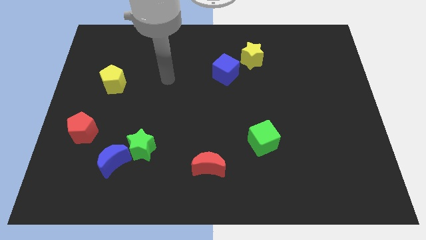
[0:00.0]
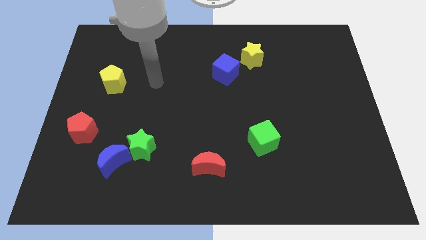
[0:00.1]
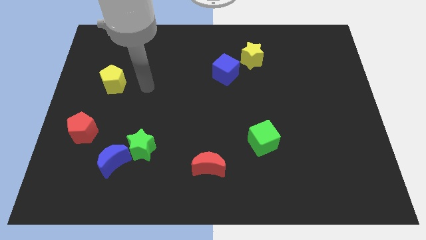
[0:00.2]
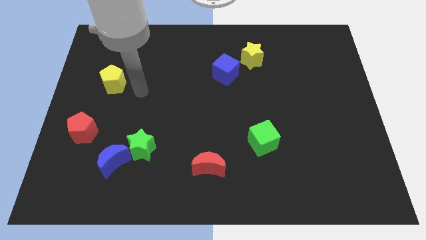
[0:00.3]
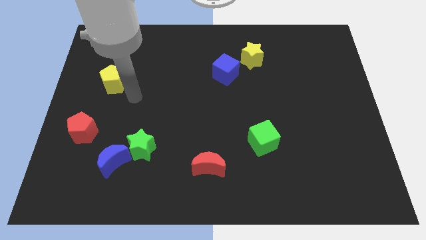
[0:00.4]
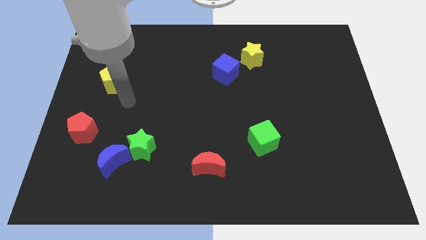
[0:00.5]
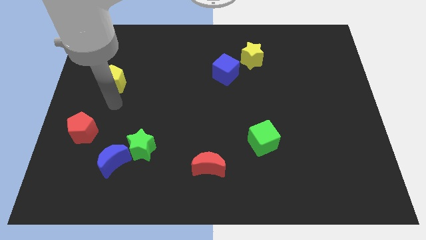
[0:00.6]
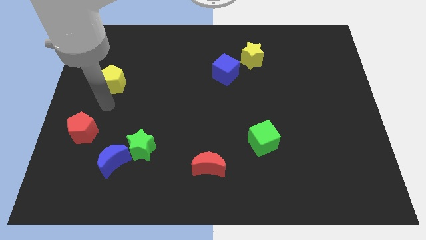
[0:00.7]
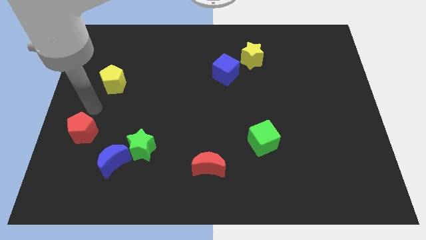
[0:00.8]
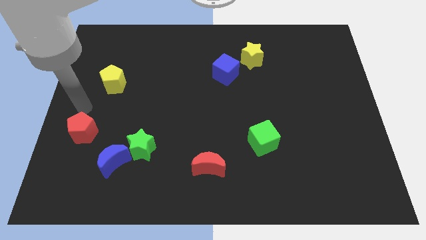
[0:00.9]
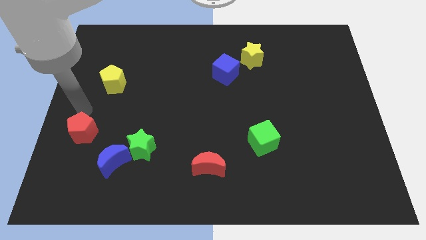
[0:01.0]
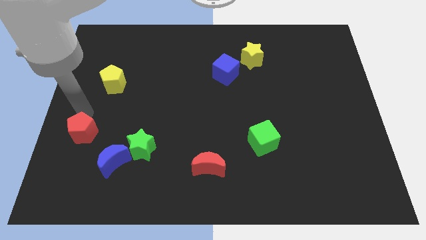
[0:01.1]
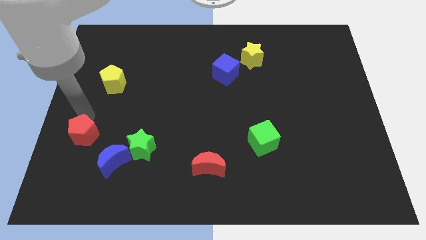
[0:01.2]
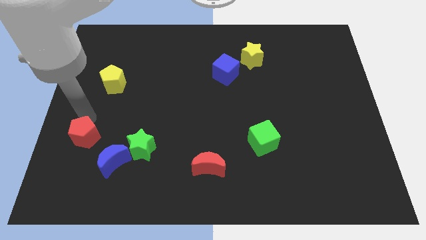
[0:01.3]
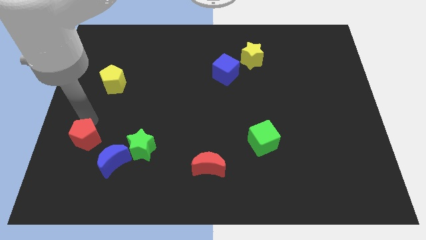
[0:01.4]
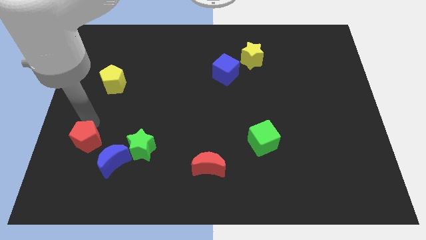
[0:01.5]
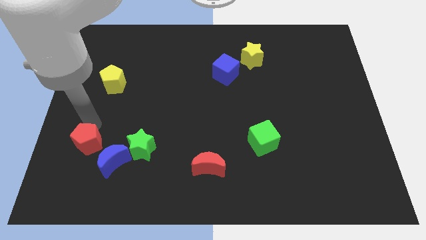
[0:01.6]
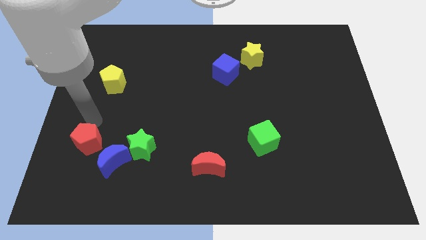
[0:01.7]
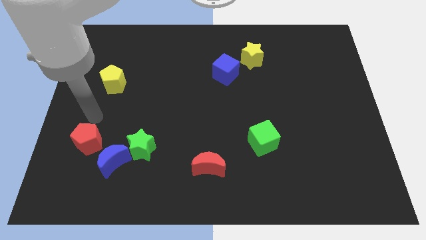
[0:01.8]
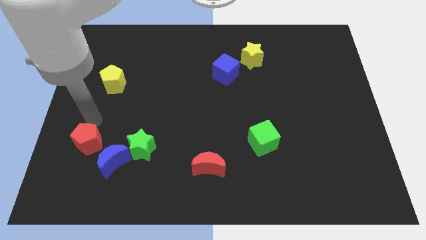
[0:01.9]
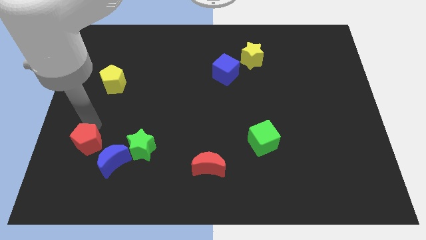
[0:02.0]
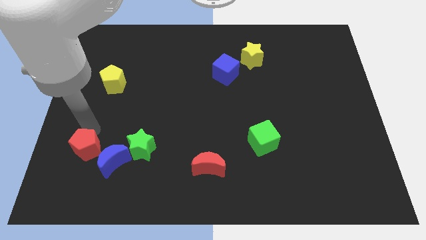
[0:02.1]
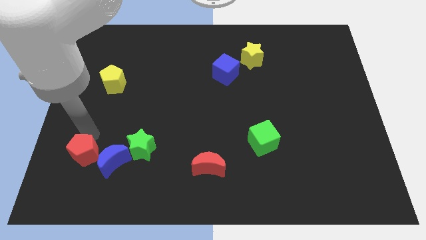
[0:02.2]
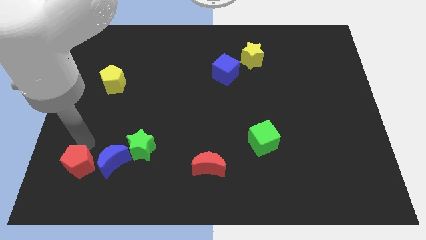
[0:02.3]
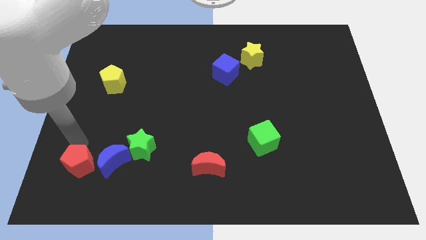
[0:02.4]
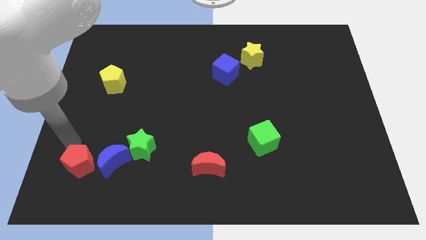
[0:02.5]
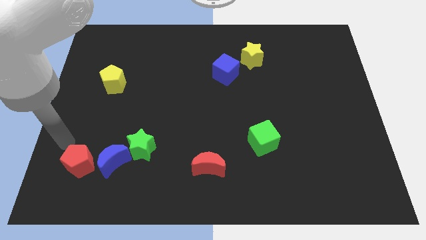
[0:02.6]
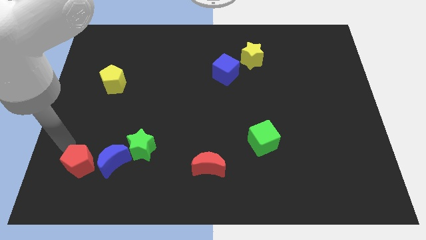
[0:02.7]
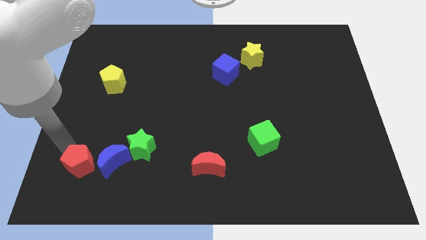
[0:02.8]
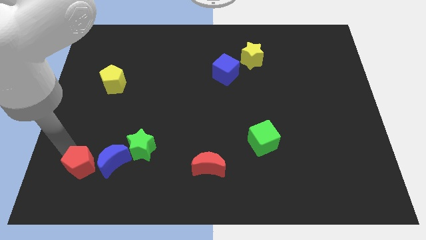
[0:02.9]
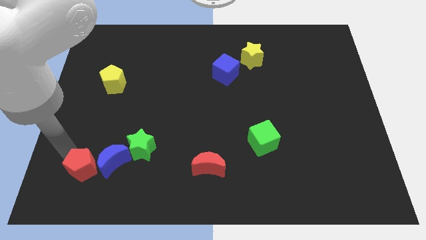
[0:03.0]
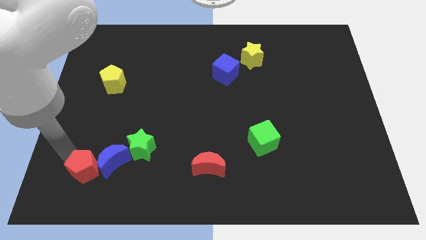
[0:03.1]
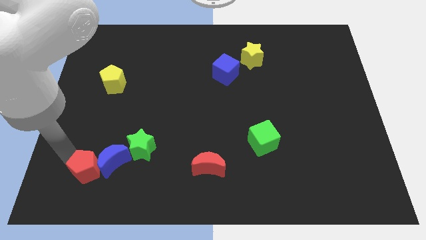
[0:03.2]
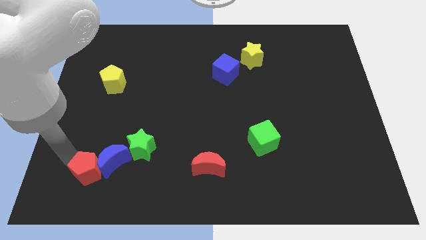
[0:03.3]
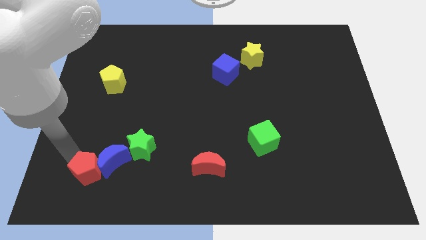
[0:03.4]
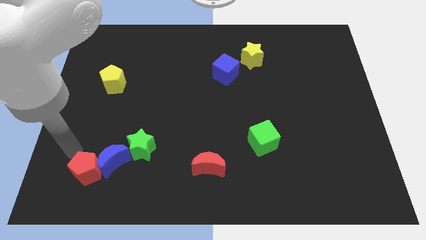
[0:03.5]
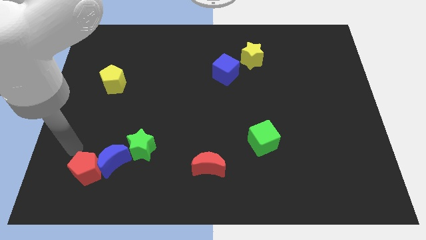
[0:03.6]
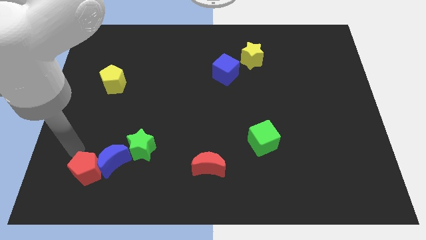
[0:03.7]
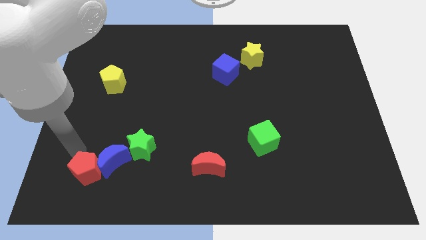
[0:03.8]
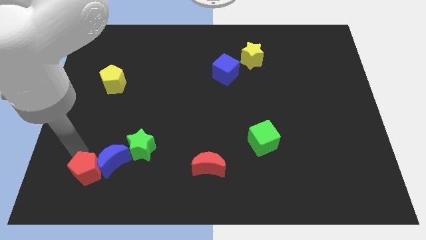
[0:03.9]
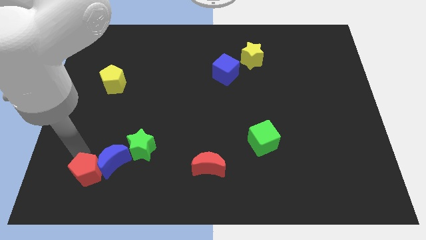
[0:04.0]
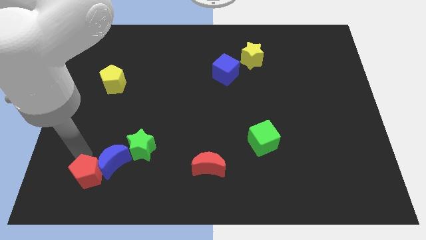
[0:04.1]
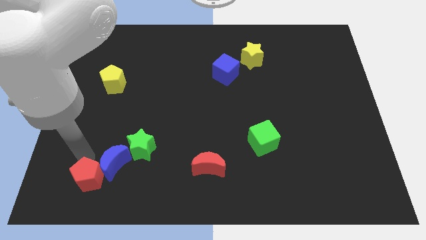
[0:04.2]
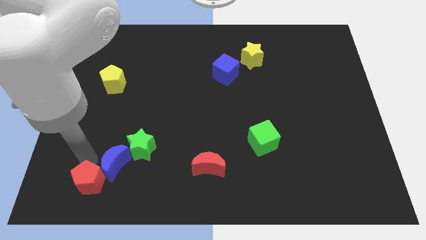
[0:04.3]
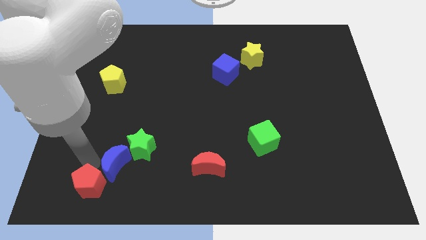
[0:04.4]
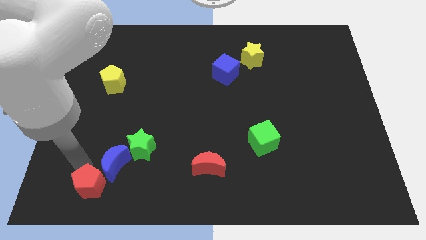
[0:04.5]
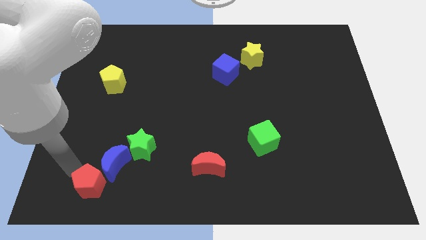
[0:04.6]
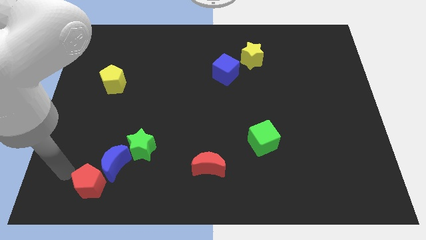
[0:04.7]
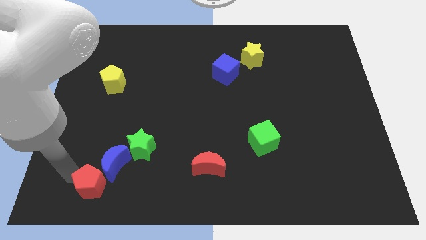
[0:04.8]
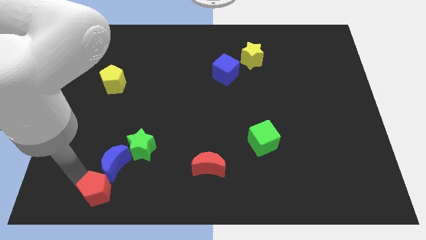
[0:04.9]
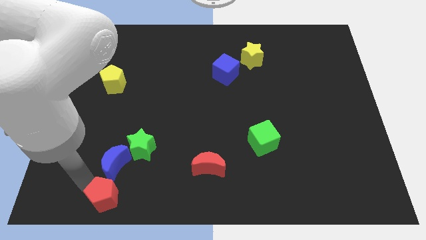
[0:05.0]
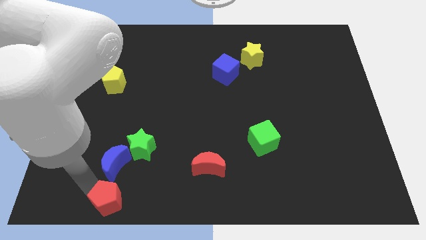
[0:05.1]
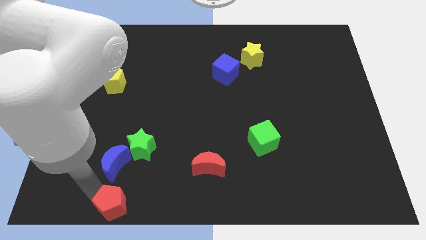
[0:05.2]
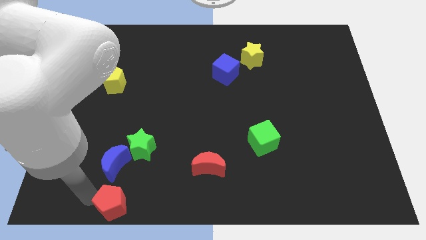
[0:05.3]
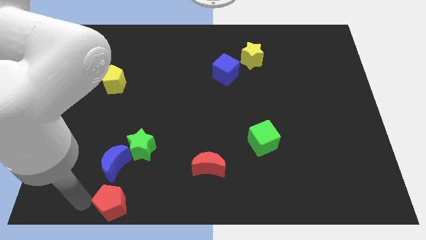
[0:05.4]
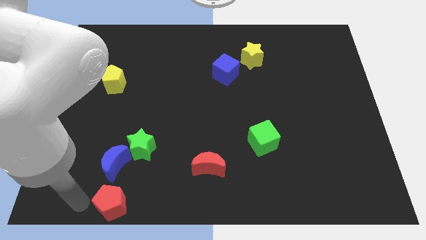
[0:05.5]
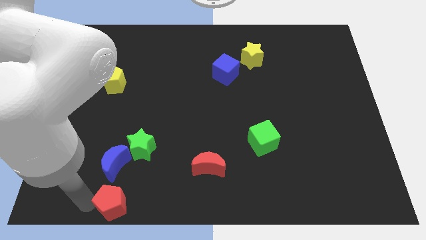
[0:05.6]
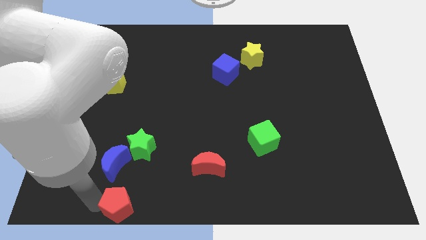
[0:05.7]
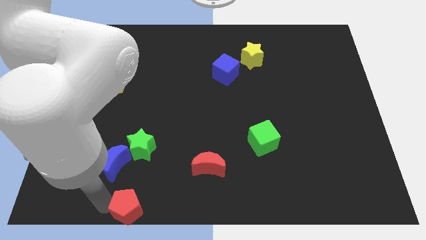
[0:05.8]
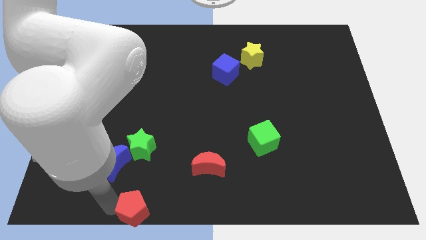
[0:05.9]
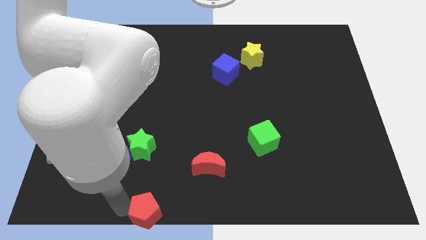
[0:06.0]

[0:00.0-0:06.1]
push the red pentagon to the bottom side

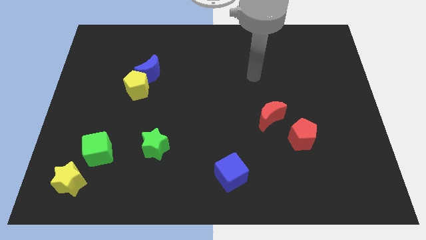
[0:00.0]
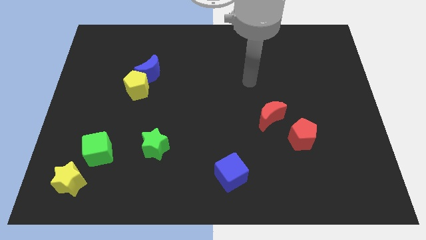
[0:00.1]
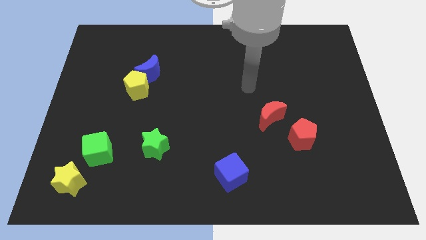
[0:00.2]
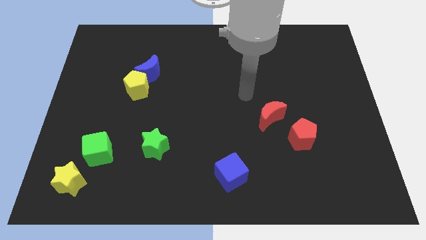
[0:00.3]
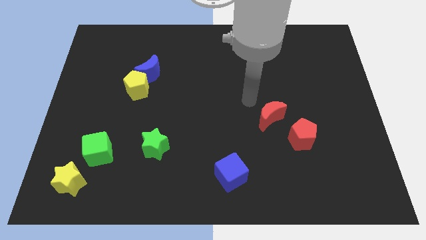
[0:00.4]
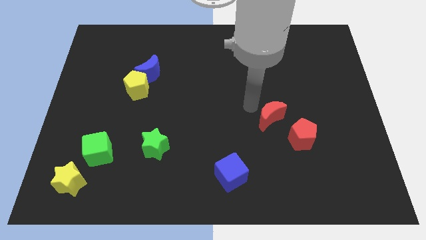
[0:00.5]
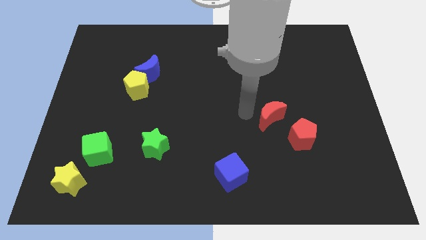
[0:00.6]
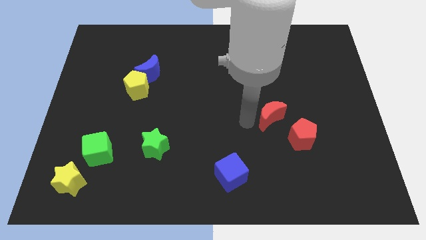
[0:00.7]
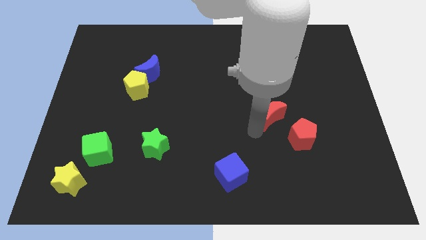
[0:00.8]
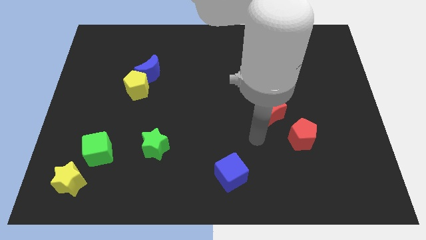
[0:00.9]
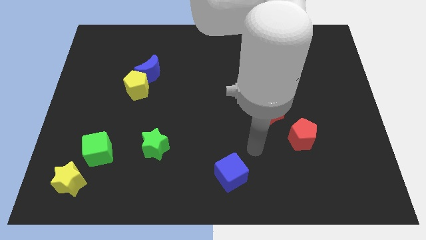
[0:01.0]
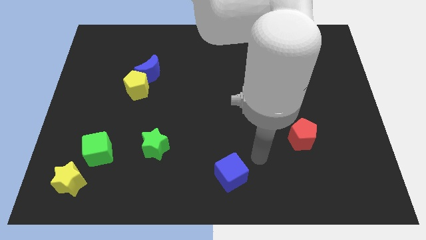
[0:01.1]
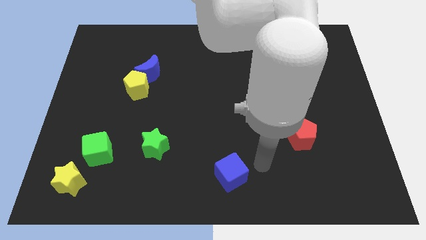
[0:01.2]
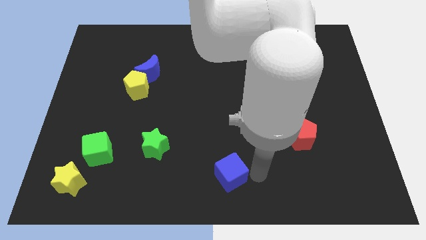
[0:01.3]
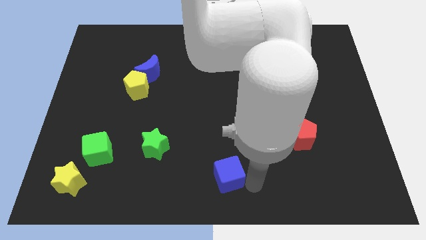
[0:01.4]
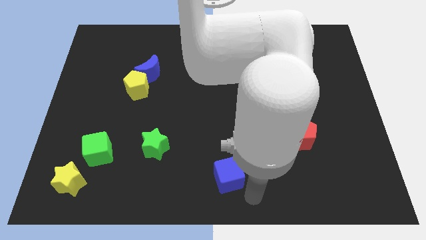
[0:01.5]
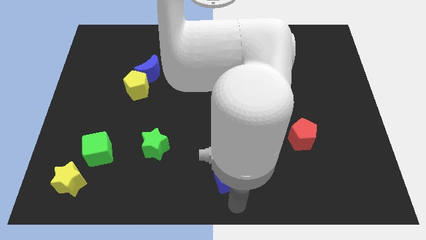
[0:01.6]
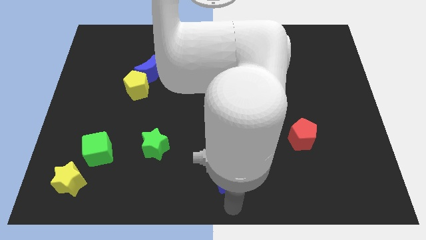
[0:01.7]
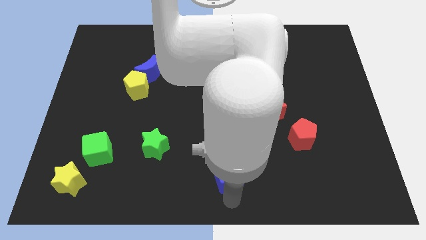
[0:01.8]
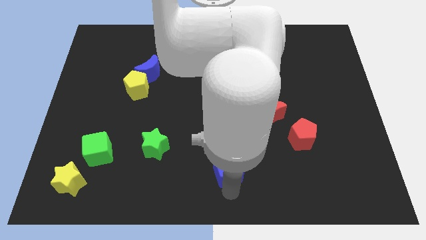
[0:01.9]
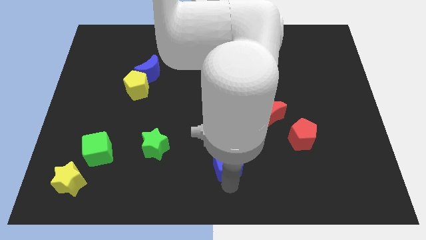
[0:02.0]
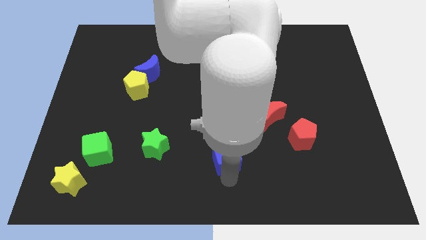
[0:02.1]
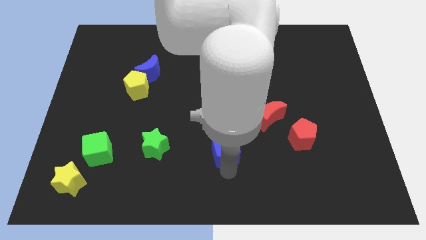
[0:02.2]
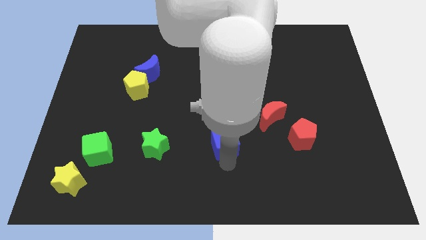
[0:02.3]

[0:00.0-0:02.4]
put the blue cube to the center of the board
